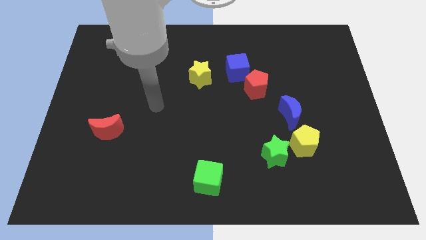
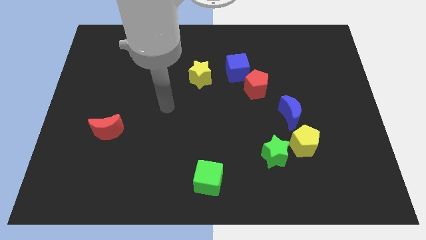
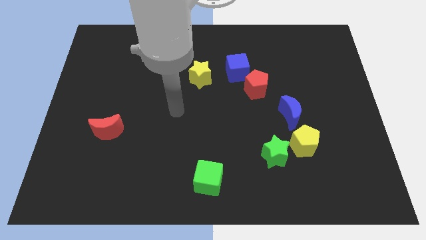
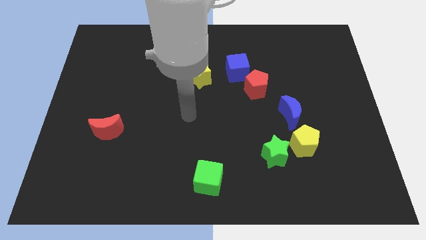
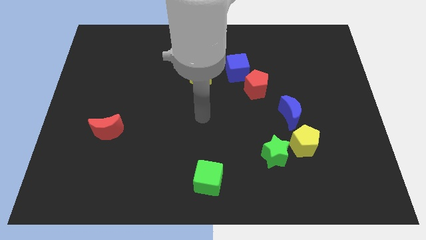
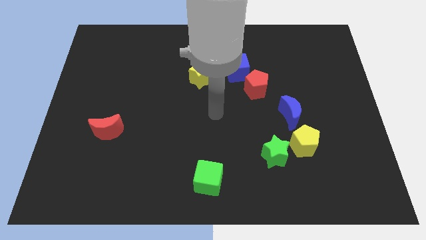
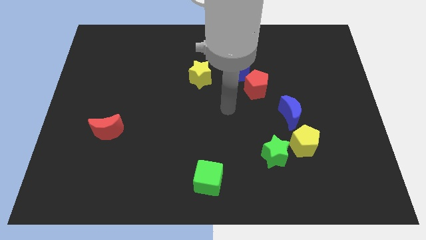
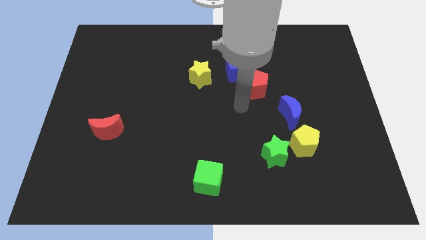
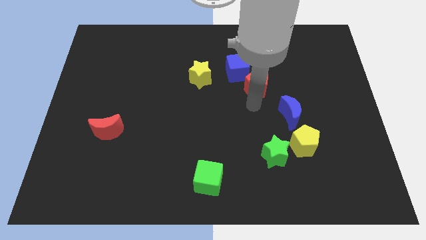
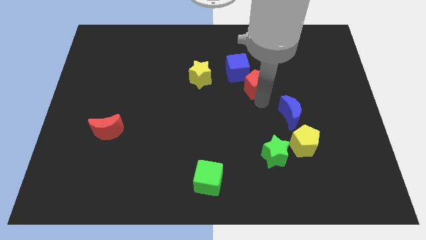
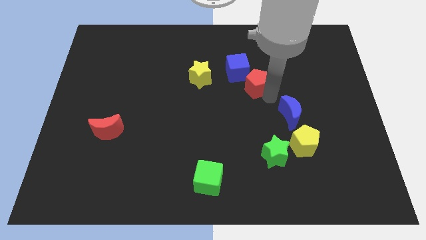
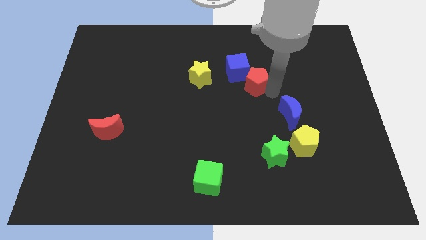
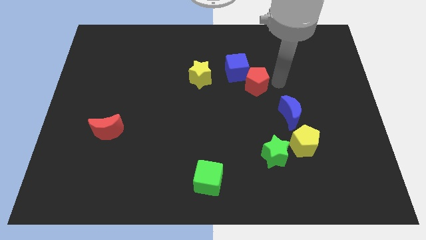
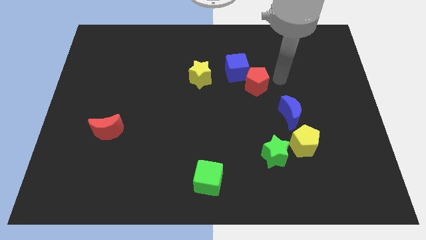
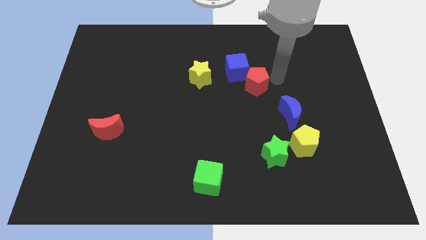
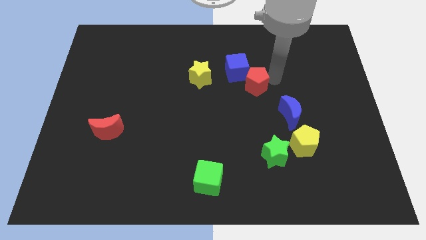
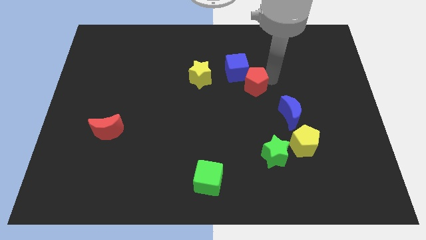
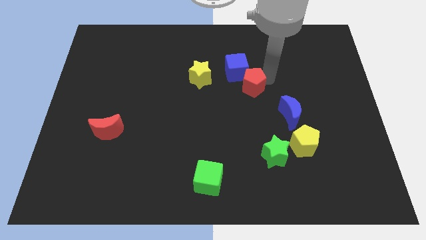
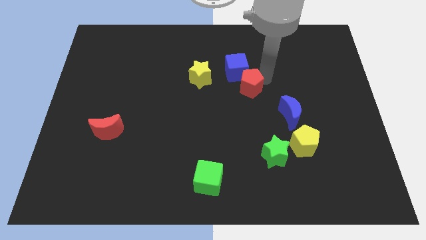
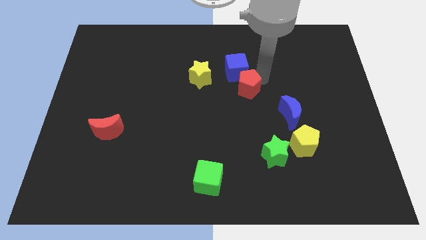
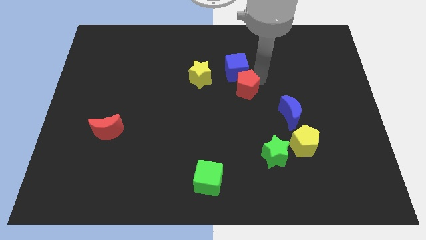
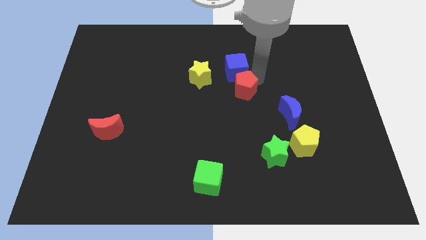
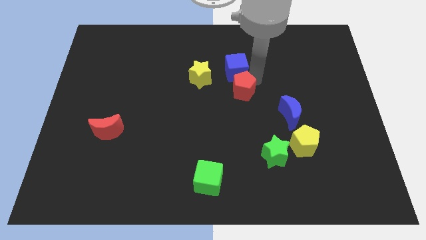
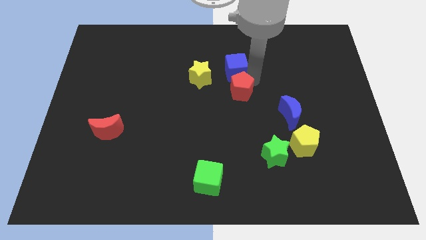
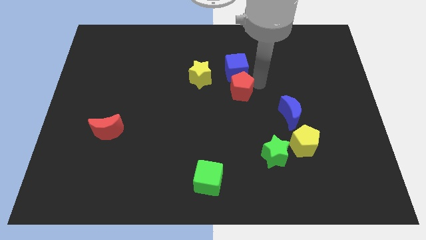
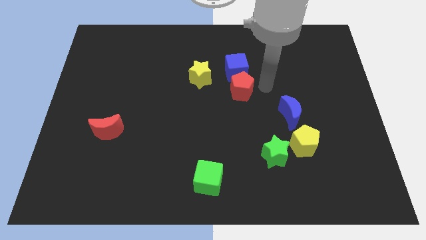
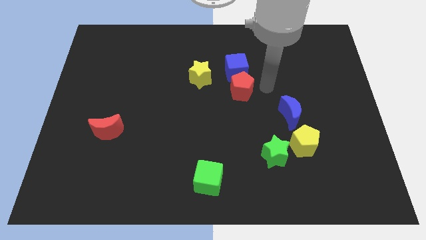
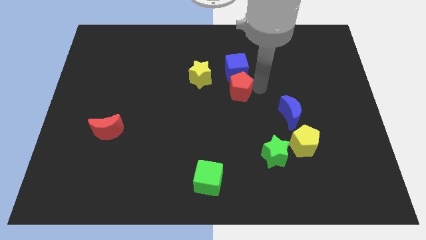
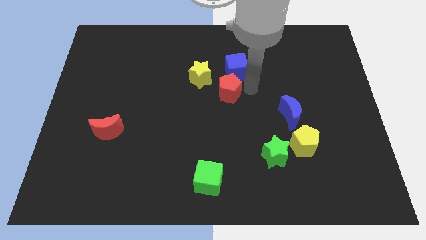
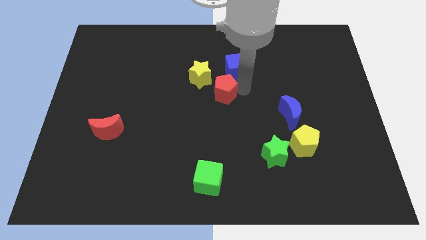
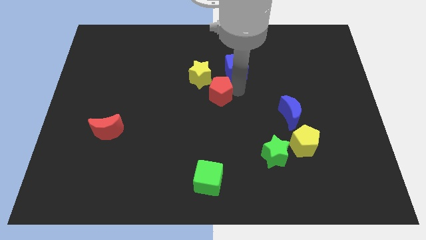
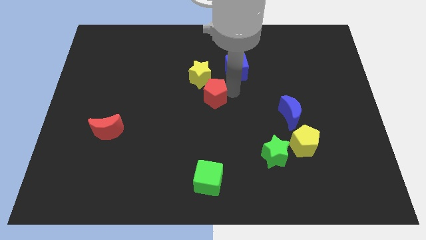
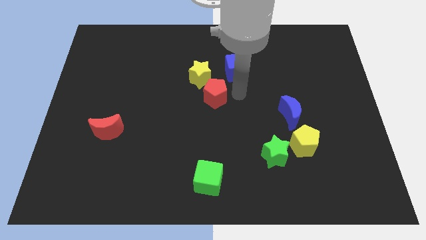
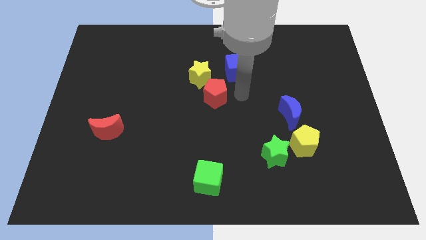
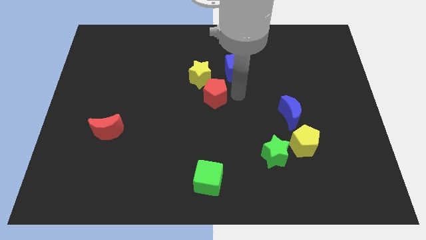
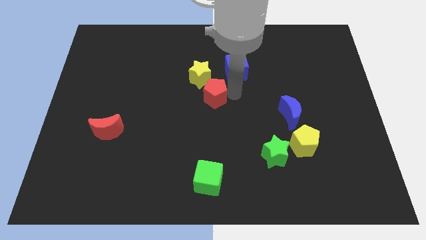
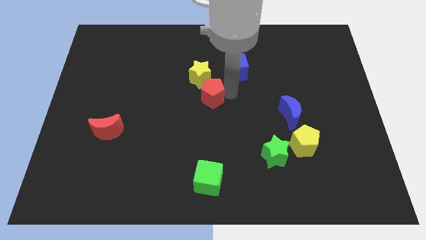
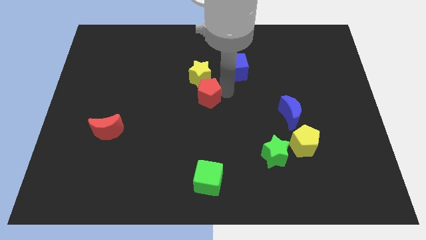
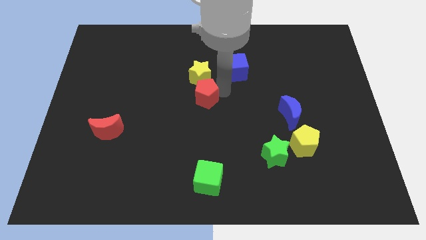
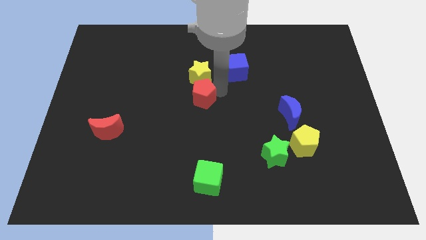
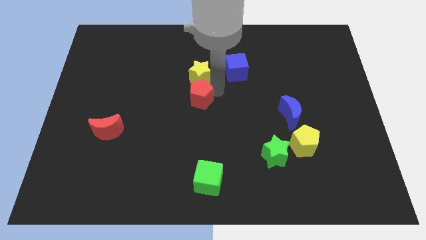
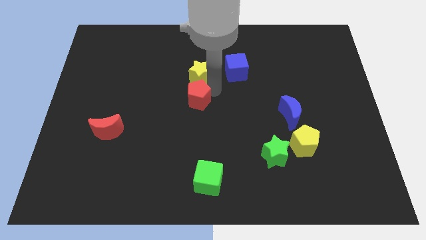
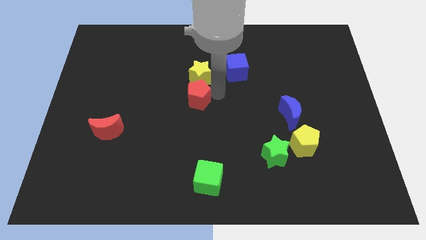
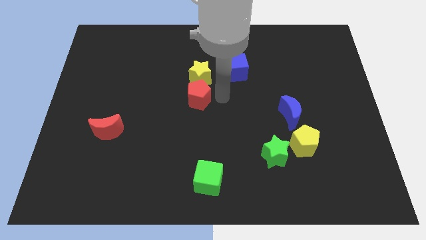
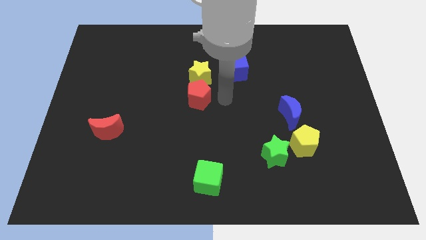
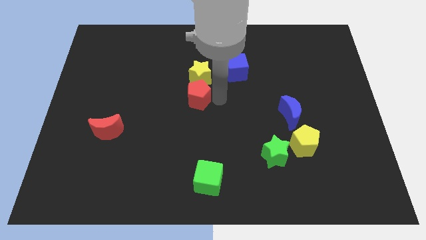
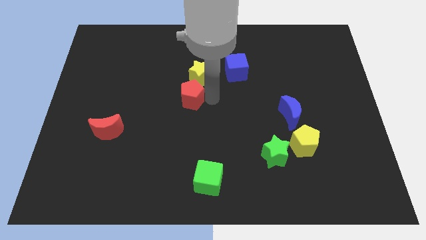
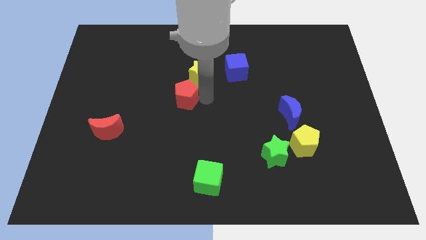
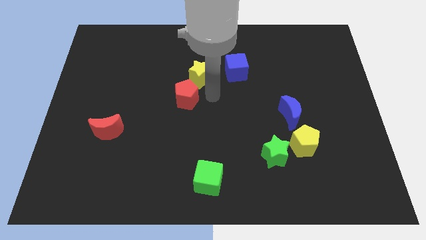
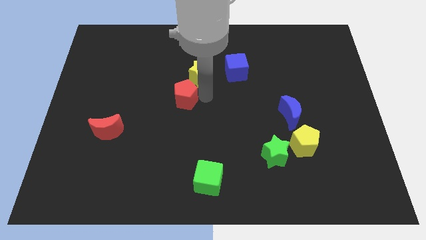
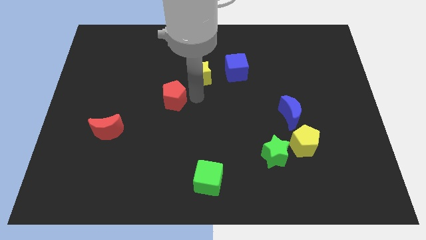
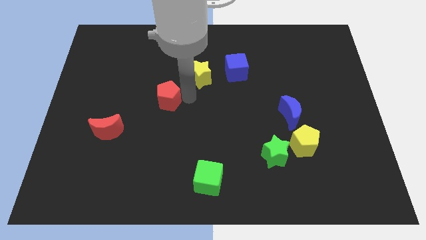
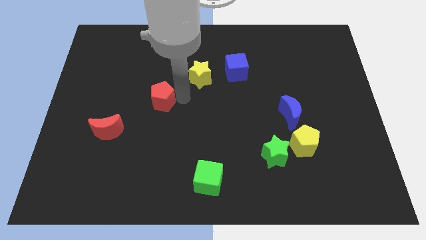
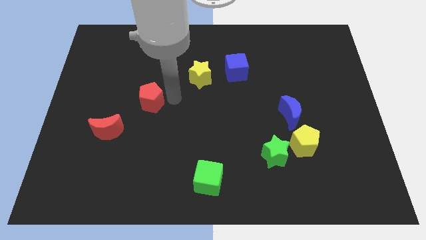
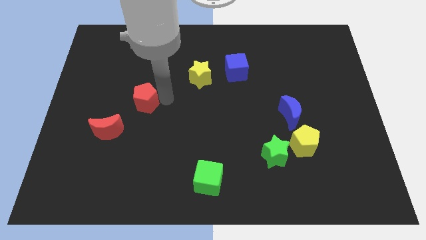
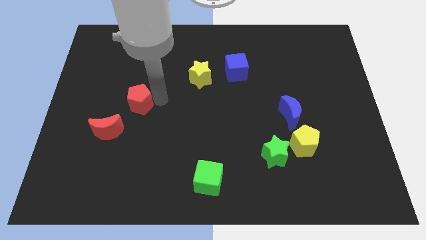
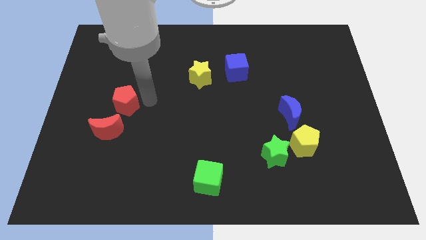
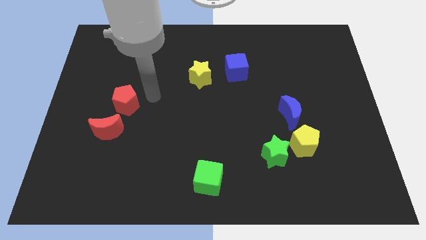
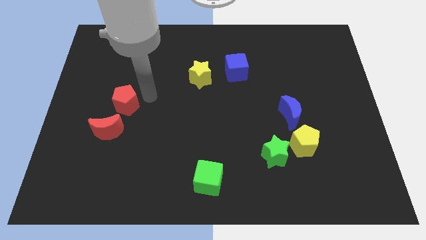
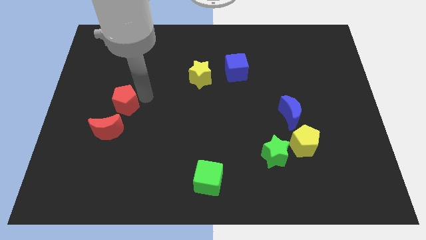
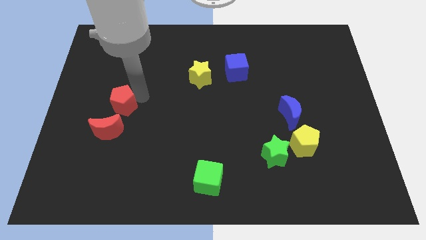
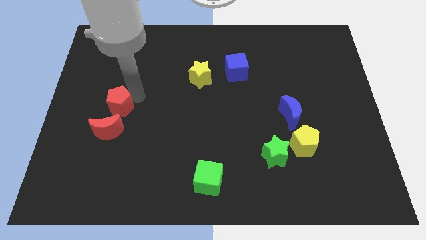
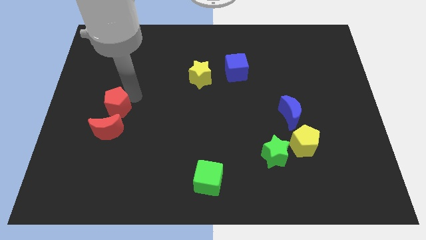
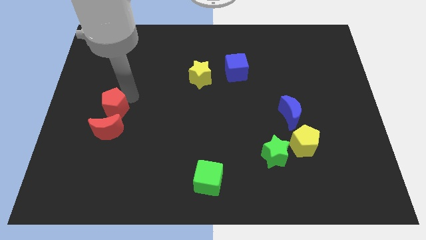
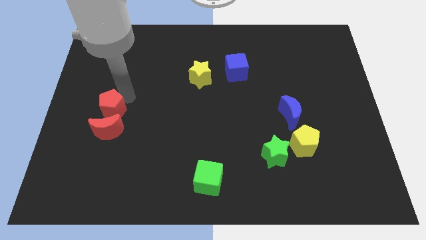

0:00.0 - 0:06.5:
push the red pentagon to the top left of the red moon

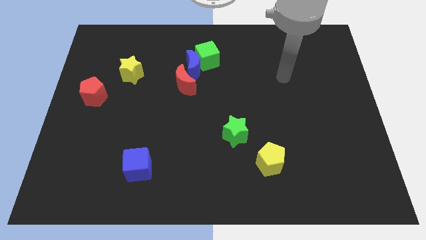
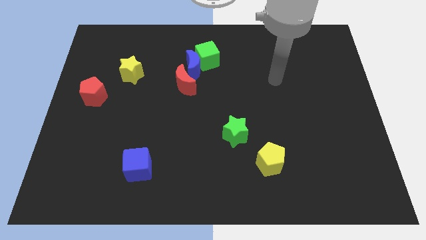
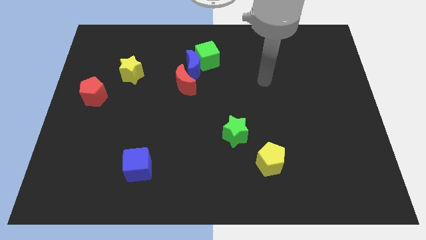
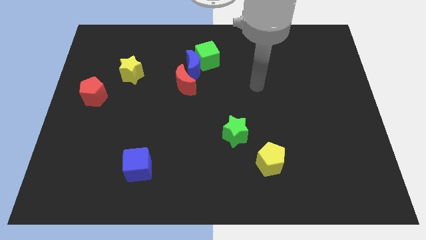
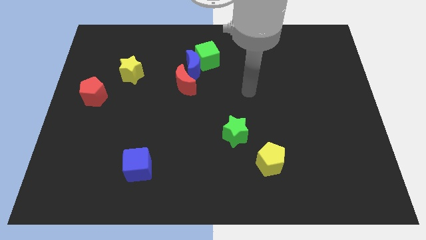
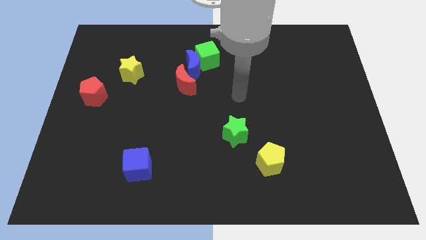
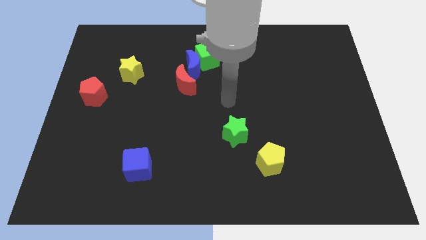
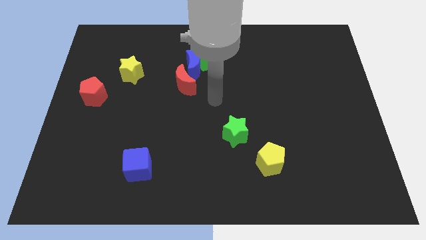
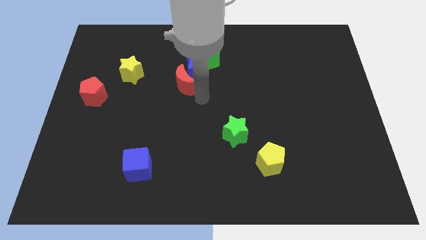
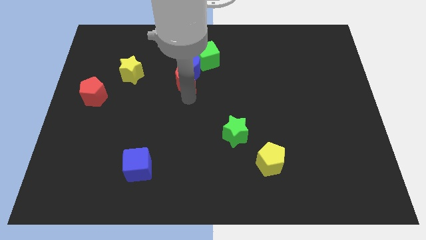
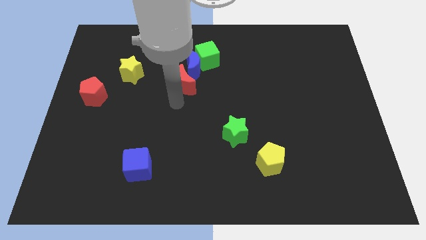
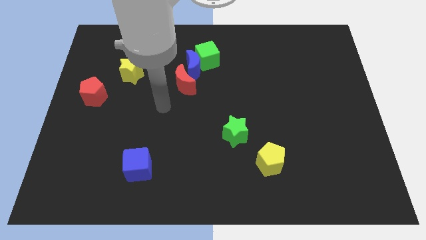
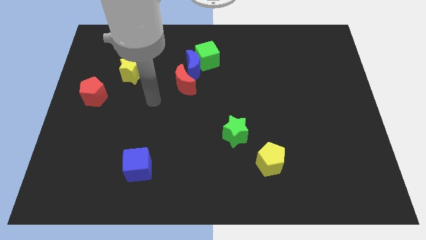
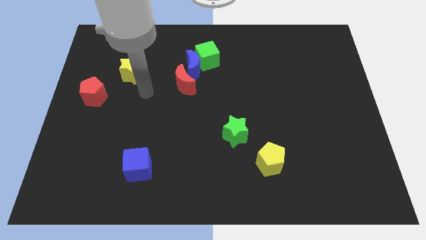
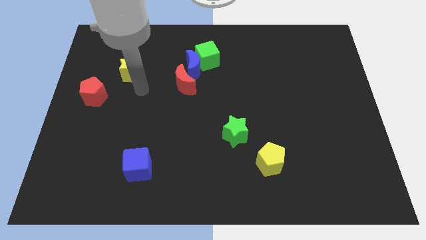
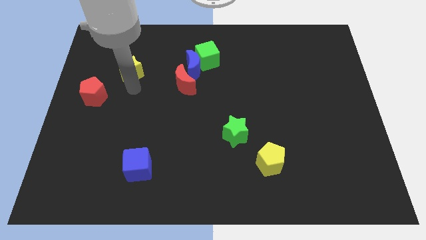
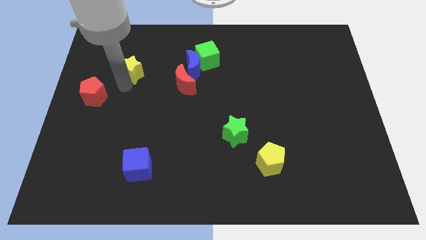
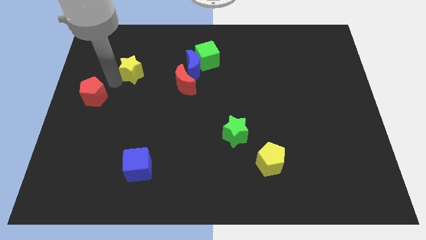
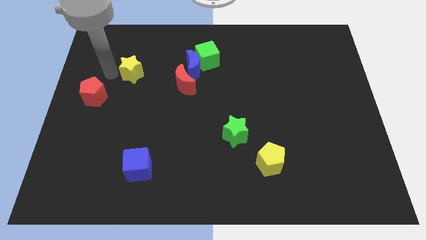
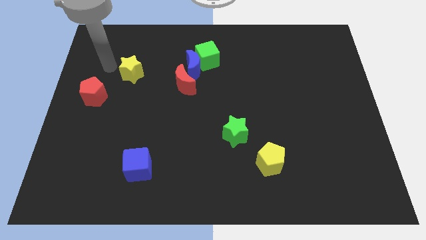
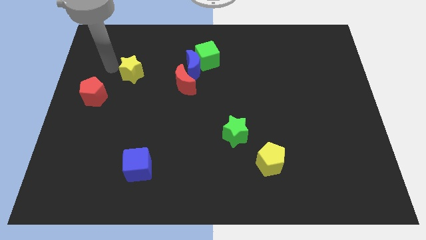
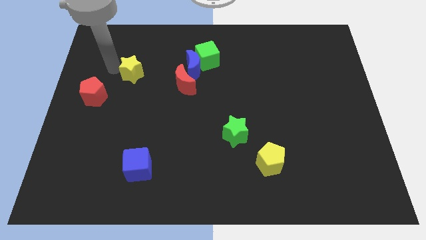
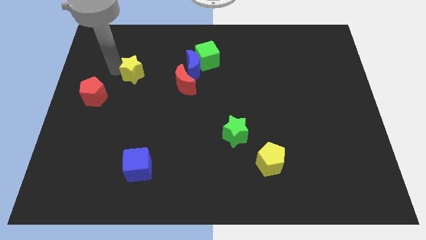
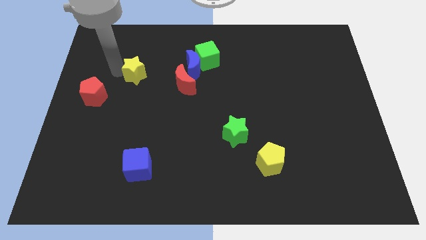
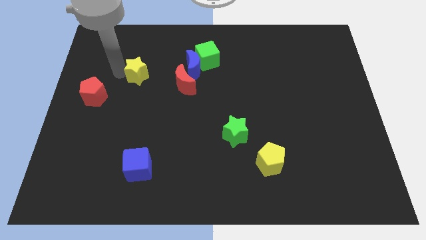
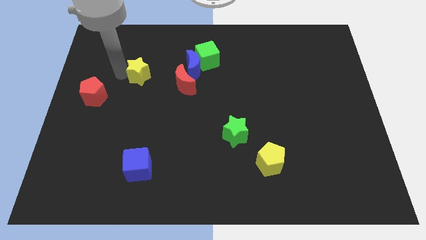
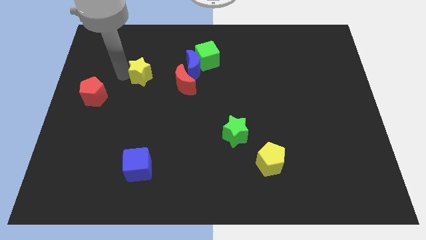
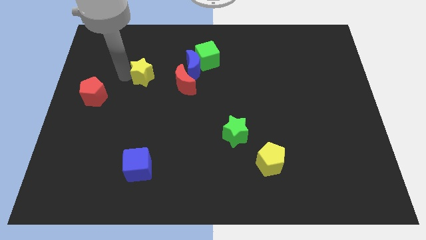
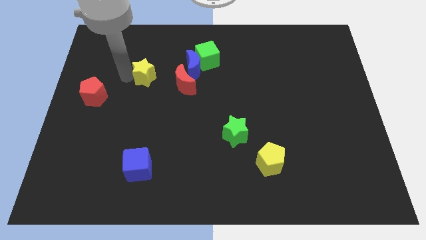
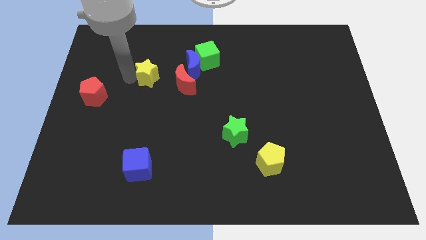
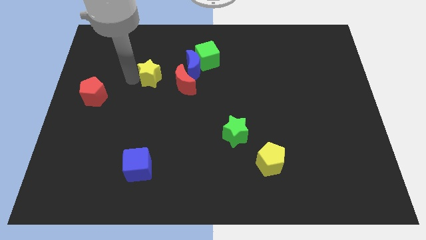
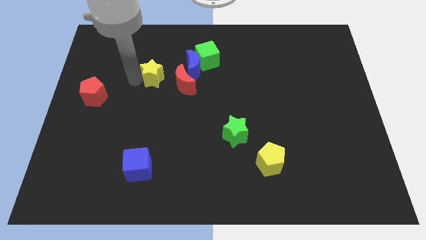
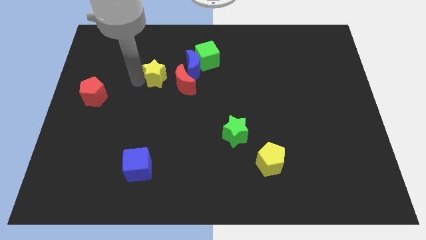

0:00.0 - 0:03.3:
slide the yellow star to the bottom left side of the blue moon
